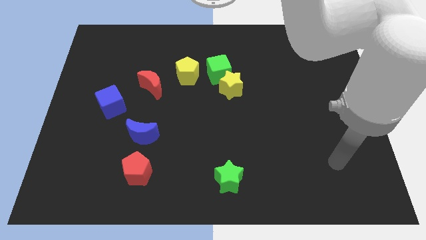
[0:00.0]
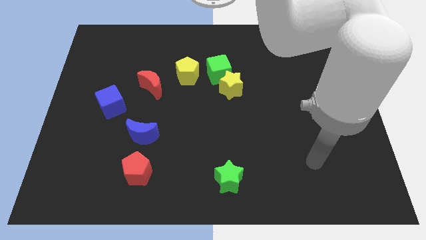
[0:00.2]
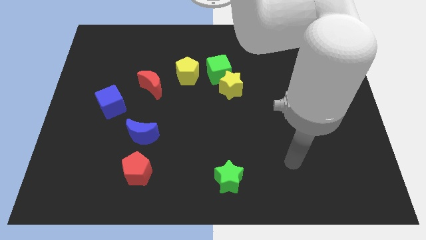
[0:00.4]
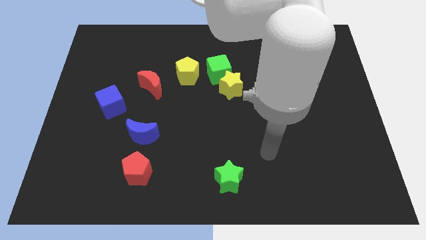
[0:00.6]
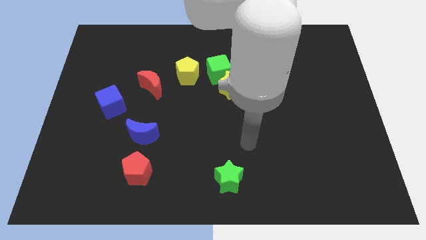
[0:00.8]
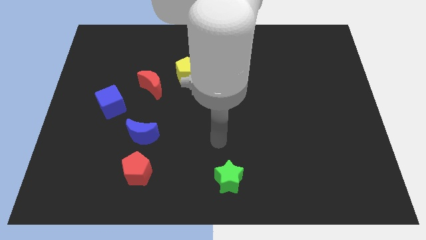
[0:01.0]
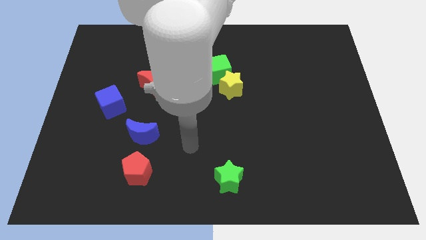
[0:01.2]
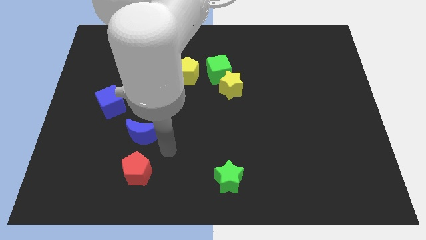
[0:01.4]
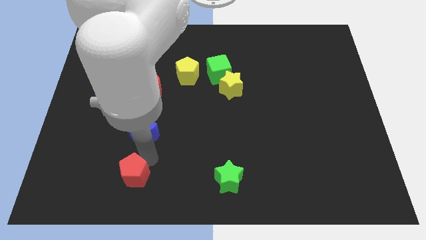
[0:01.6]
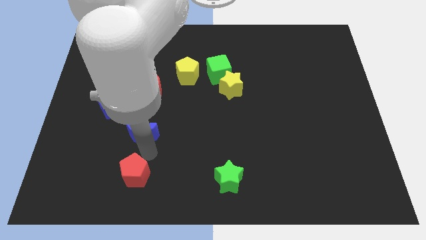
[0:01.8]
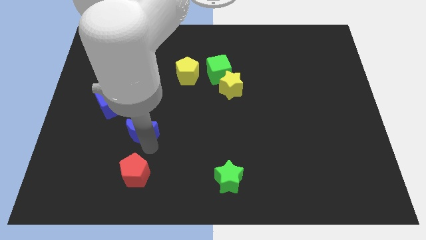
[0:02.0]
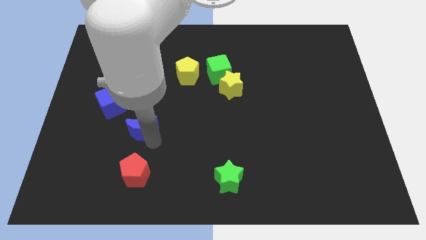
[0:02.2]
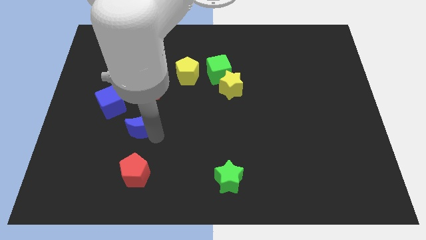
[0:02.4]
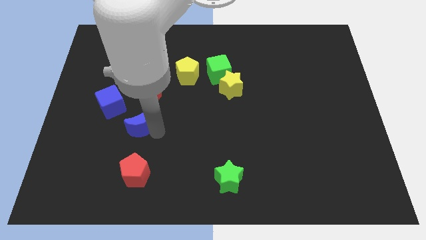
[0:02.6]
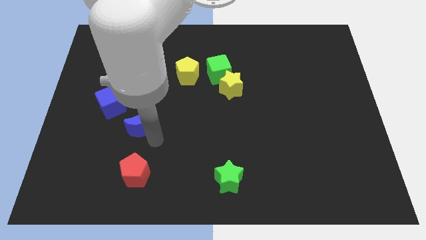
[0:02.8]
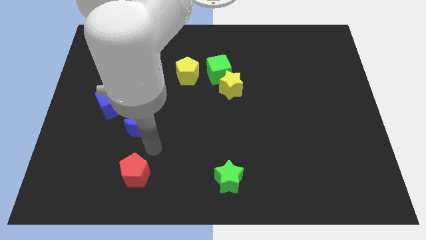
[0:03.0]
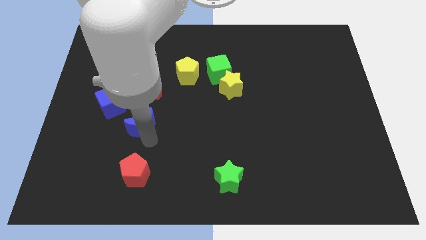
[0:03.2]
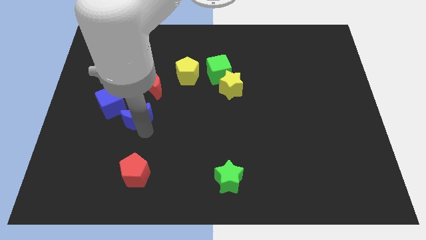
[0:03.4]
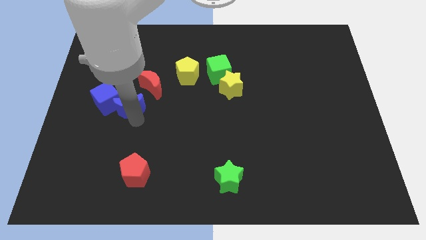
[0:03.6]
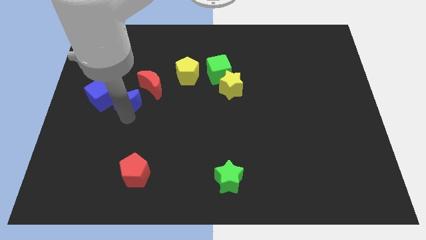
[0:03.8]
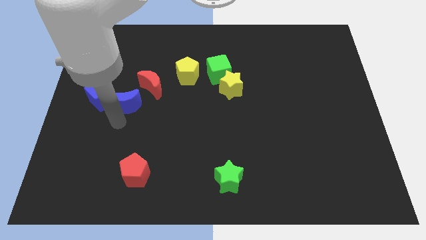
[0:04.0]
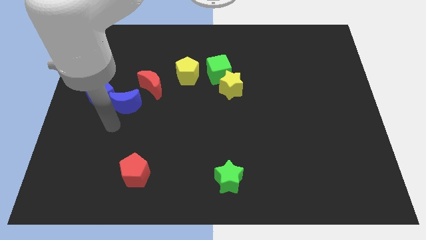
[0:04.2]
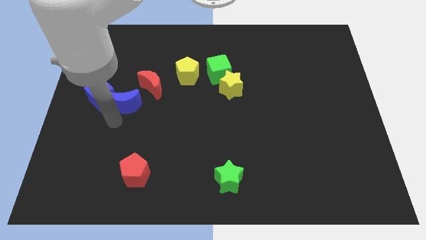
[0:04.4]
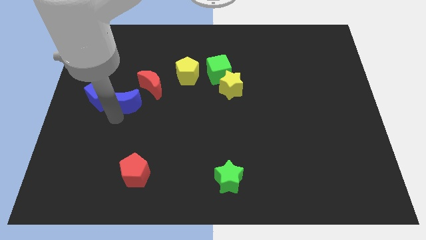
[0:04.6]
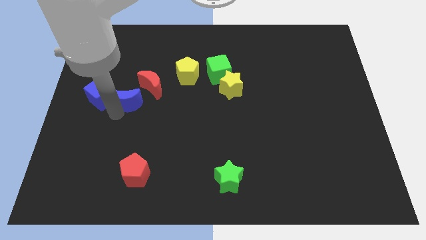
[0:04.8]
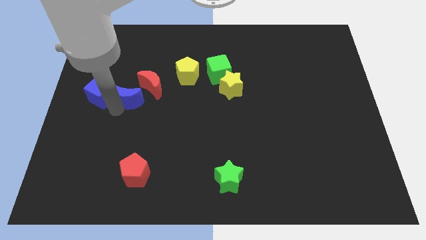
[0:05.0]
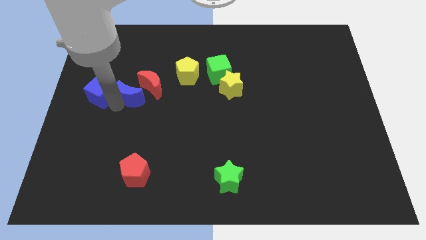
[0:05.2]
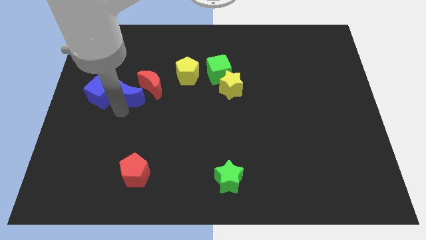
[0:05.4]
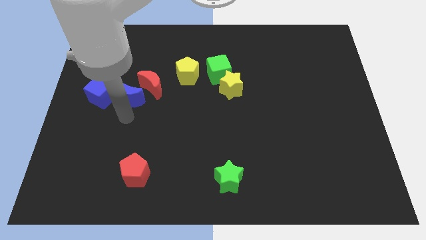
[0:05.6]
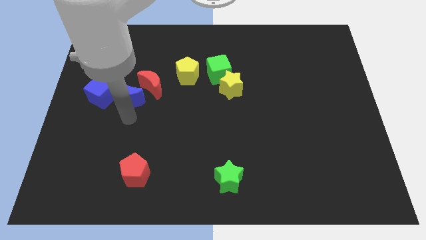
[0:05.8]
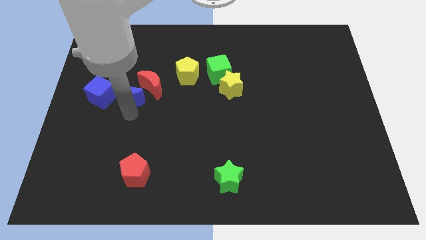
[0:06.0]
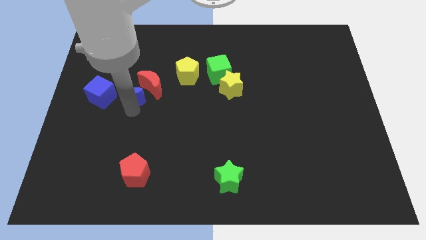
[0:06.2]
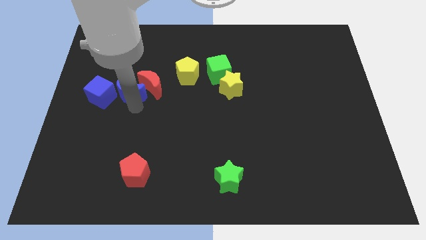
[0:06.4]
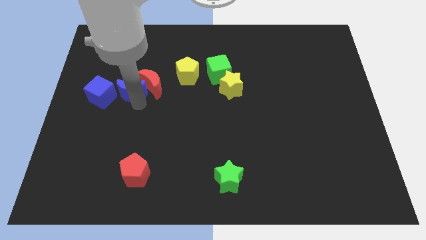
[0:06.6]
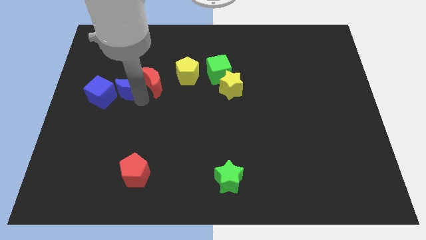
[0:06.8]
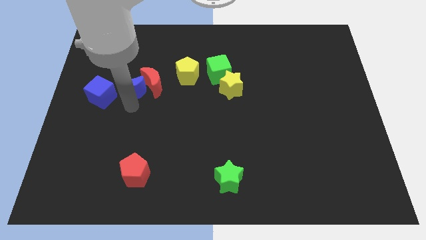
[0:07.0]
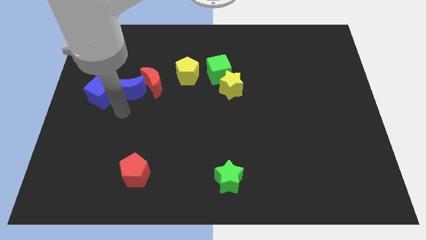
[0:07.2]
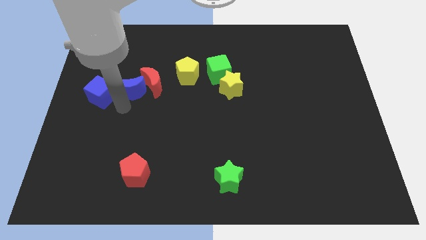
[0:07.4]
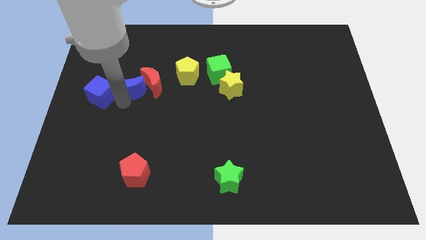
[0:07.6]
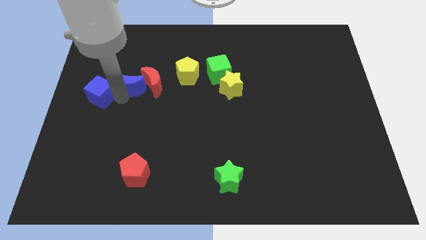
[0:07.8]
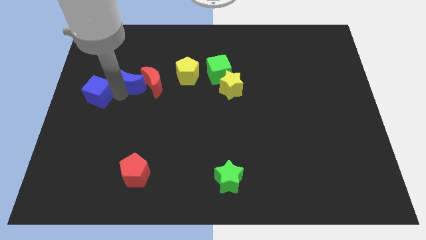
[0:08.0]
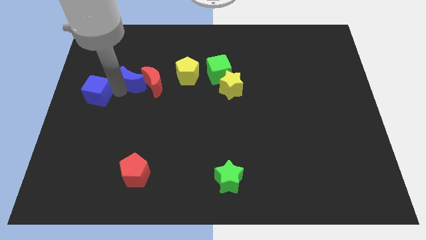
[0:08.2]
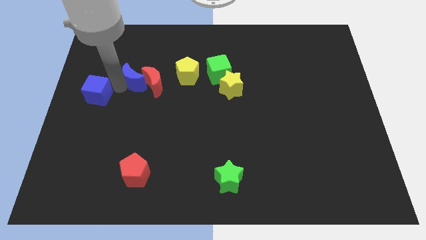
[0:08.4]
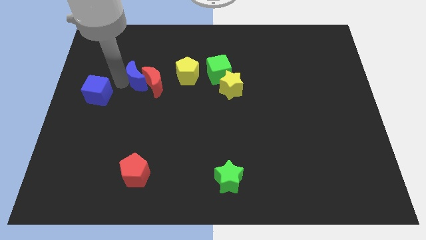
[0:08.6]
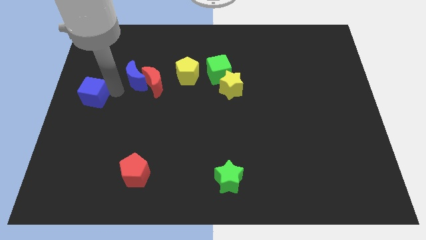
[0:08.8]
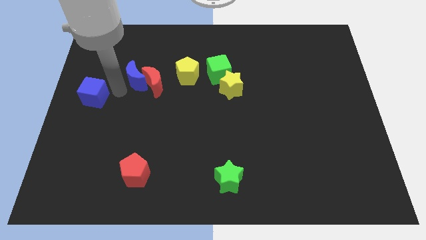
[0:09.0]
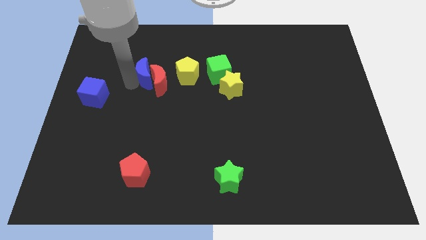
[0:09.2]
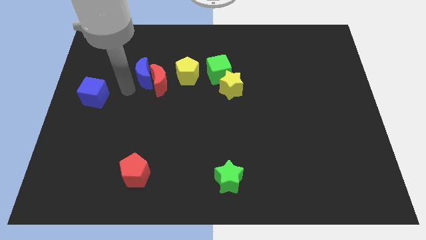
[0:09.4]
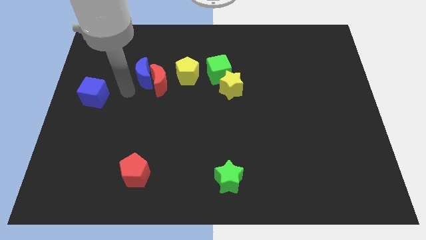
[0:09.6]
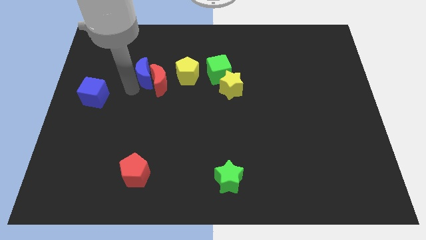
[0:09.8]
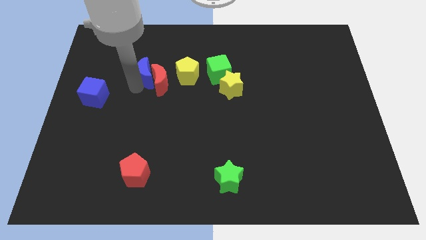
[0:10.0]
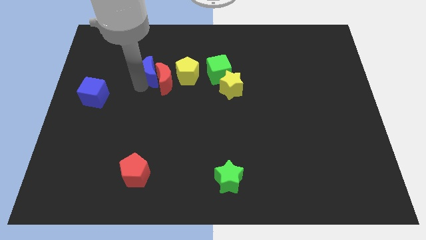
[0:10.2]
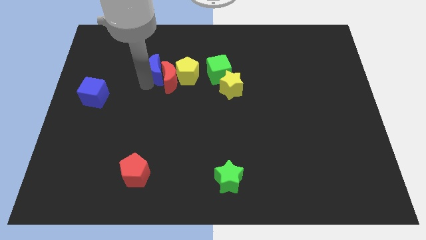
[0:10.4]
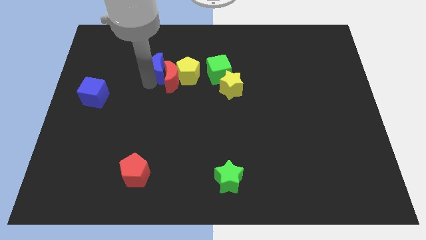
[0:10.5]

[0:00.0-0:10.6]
move the blue moon to the top left of the yellow pentagon

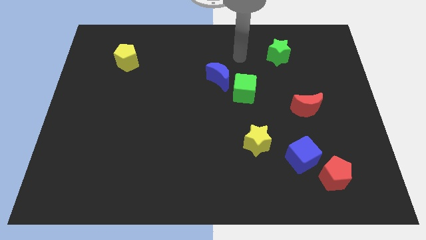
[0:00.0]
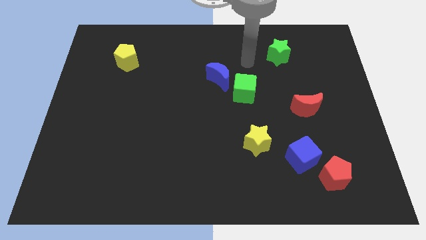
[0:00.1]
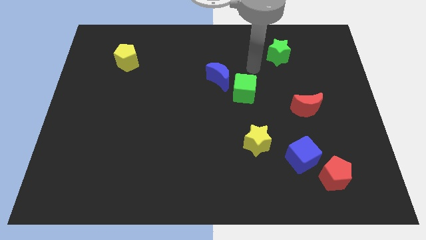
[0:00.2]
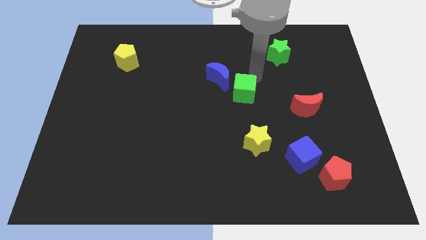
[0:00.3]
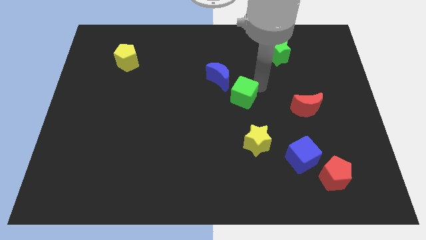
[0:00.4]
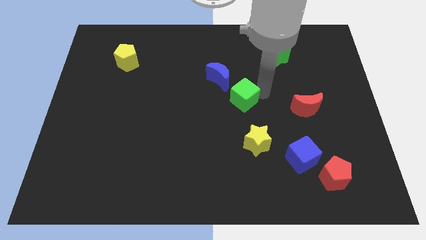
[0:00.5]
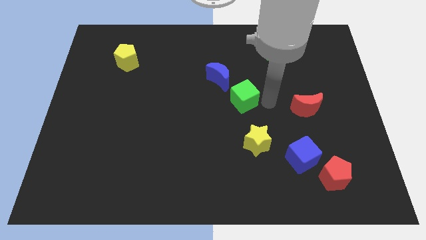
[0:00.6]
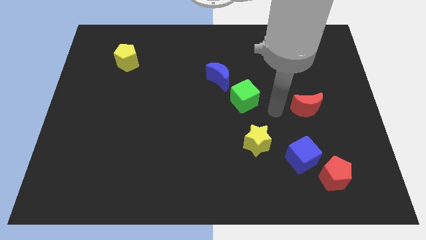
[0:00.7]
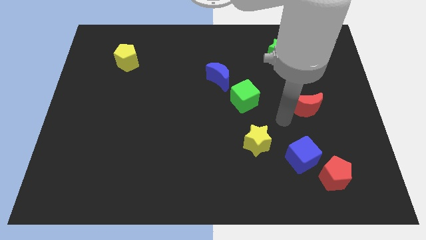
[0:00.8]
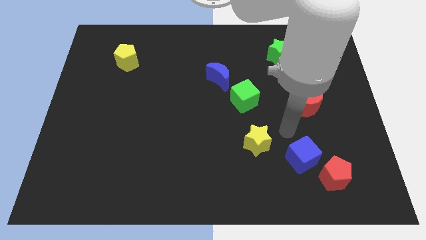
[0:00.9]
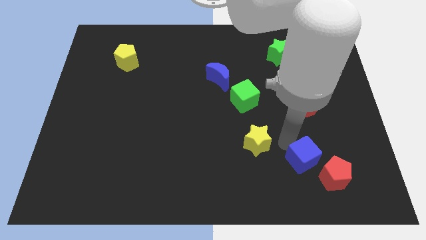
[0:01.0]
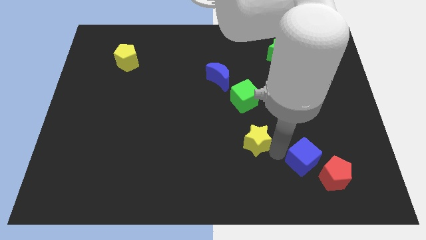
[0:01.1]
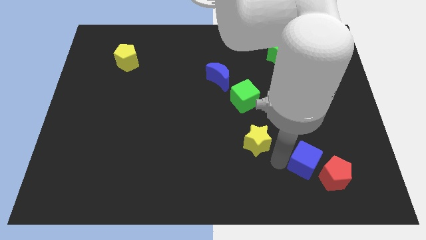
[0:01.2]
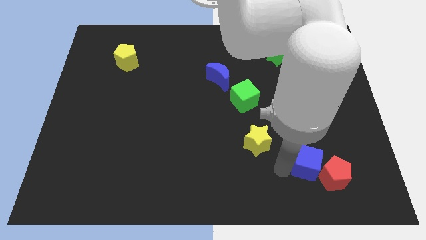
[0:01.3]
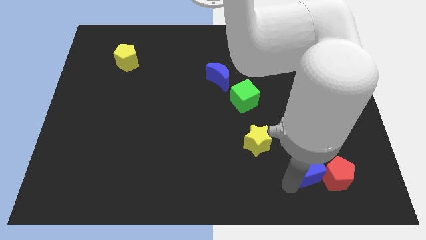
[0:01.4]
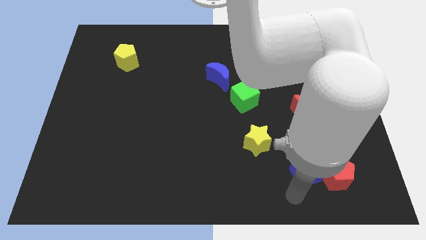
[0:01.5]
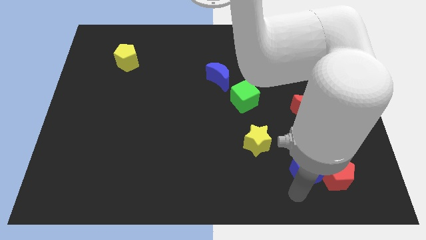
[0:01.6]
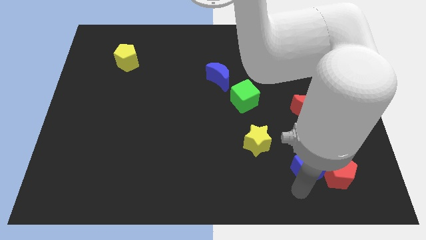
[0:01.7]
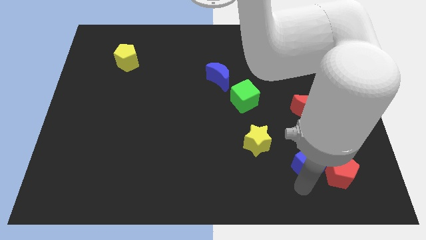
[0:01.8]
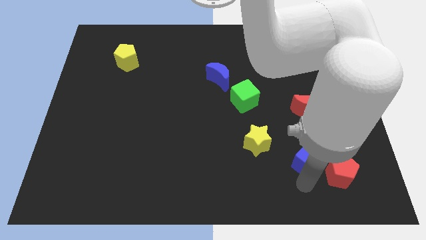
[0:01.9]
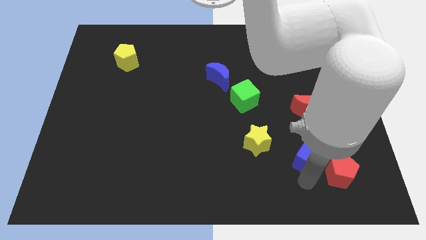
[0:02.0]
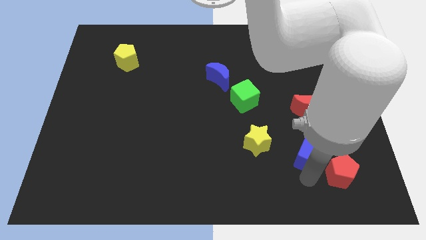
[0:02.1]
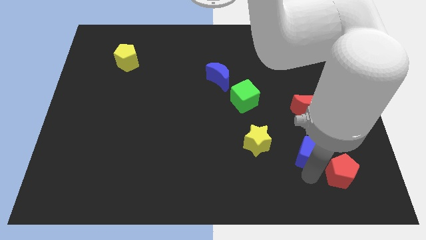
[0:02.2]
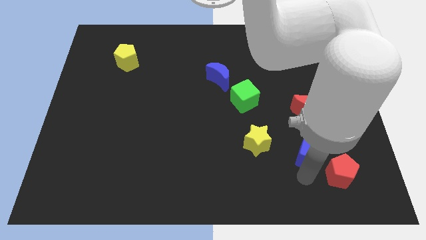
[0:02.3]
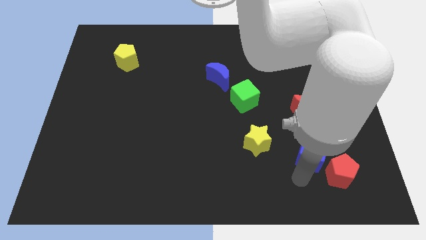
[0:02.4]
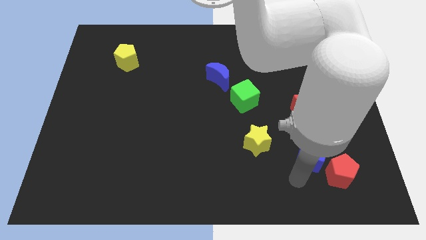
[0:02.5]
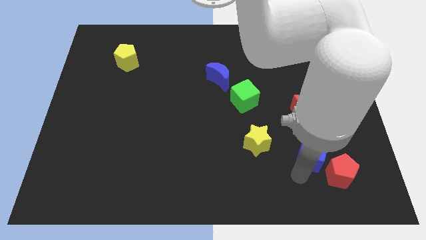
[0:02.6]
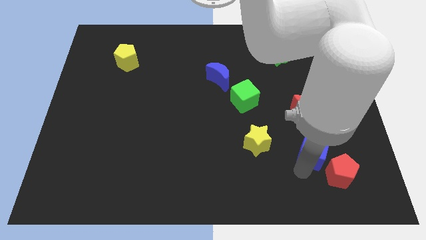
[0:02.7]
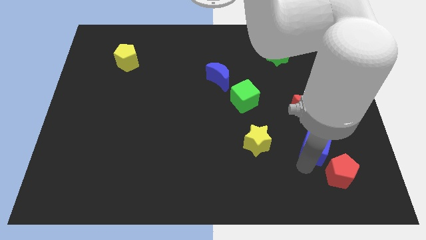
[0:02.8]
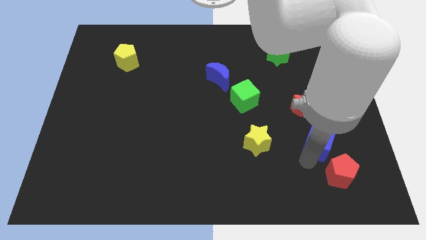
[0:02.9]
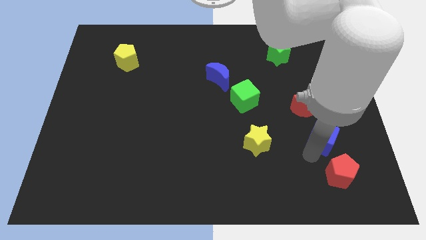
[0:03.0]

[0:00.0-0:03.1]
push the blue cube to the bottom right of the red moon
